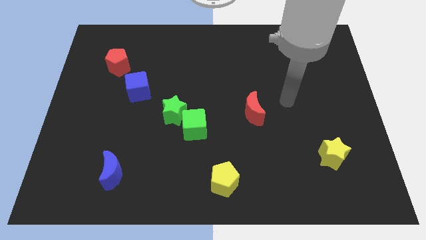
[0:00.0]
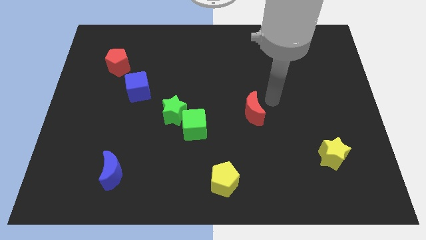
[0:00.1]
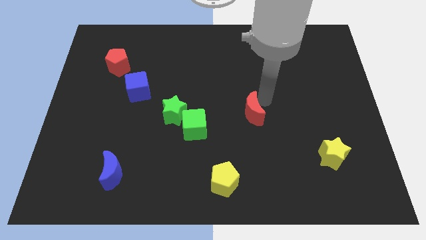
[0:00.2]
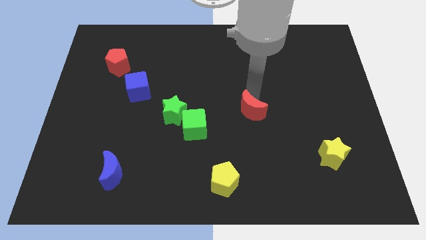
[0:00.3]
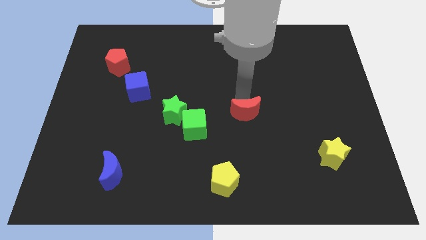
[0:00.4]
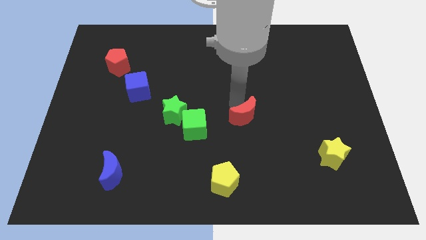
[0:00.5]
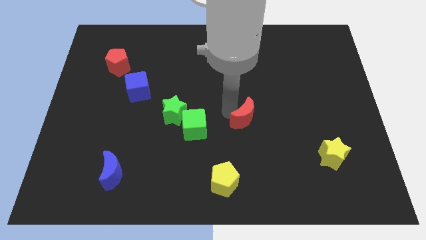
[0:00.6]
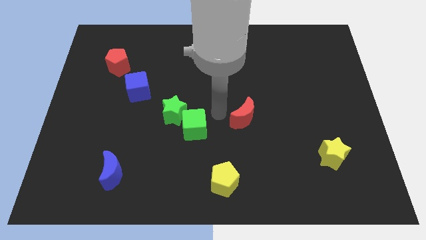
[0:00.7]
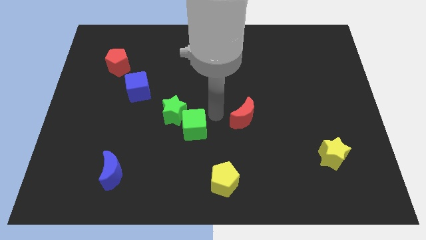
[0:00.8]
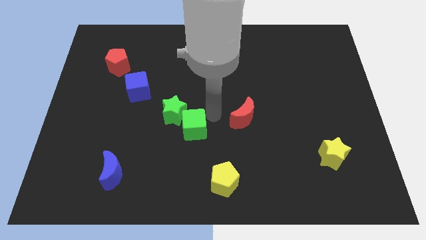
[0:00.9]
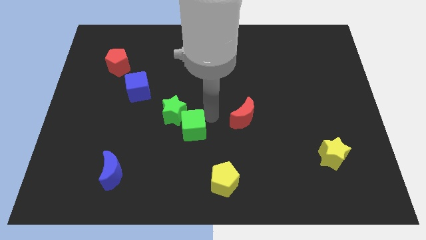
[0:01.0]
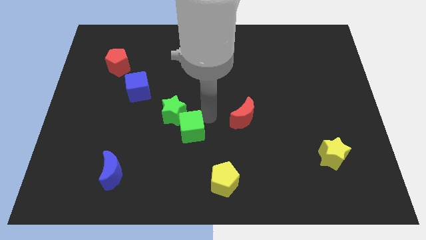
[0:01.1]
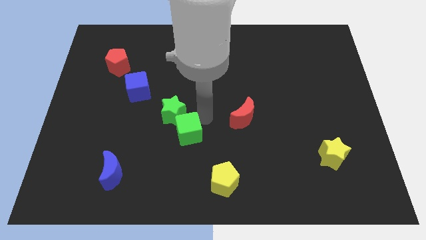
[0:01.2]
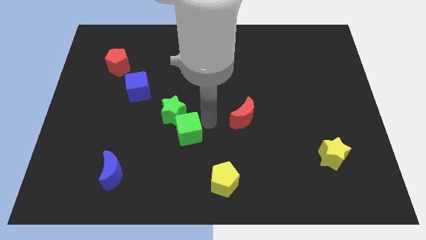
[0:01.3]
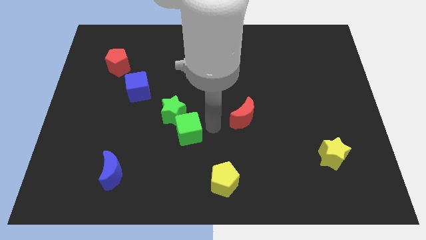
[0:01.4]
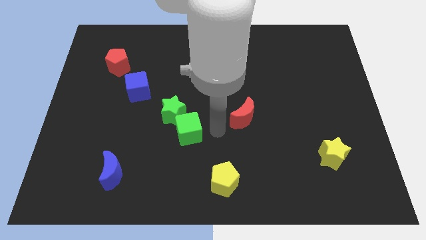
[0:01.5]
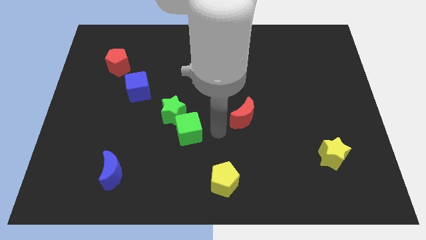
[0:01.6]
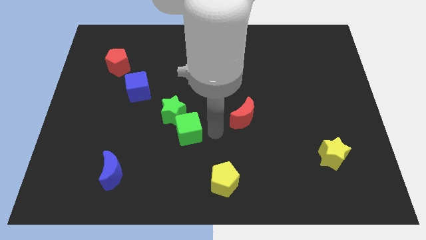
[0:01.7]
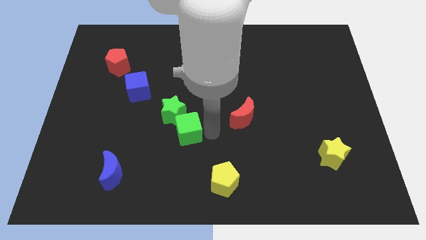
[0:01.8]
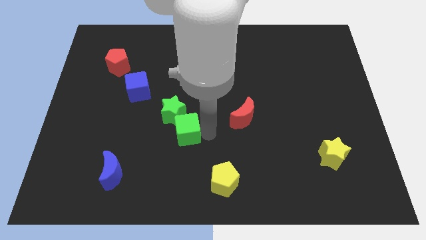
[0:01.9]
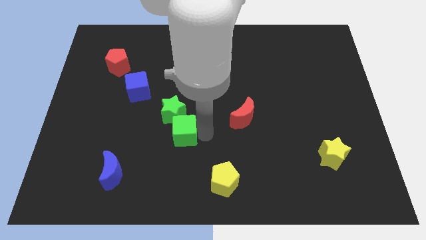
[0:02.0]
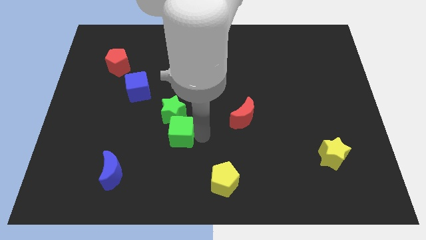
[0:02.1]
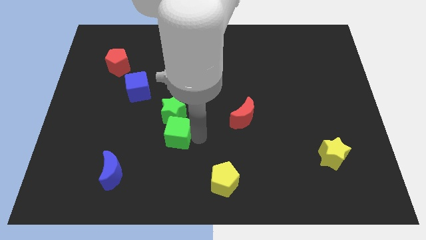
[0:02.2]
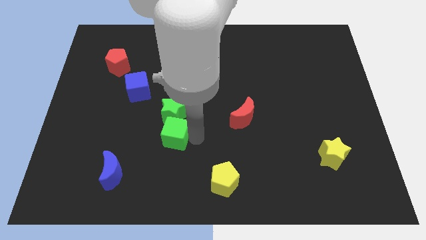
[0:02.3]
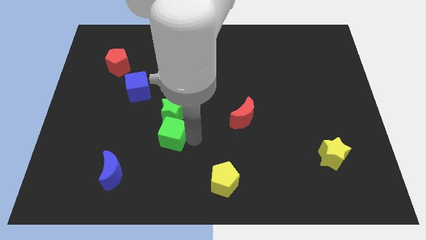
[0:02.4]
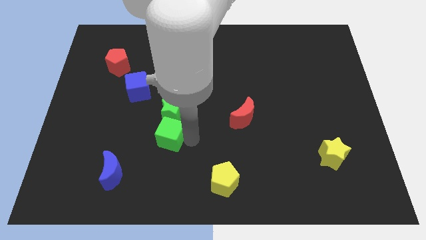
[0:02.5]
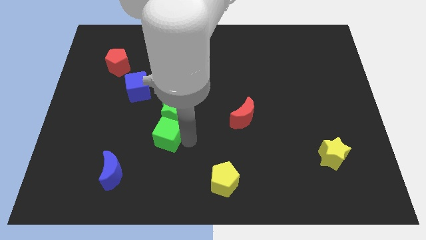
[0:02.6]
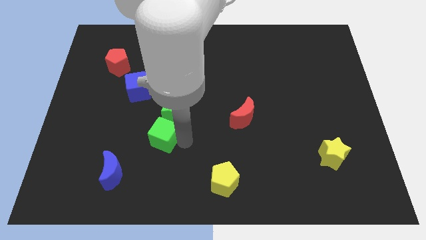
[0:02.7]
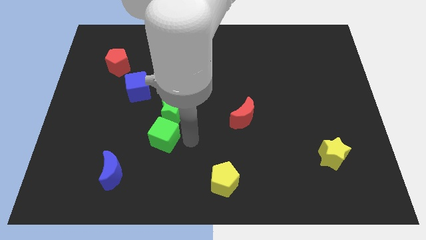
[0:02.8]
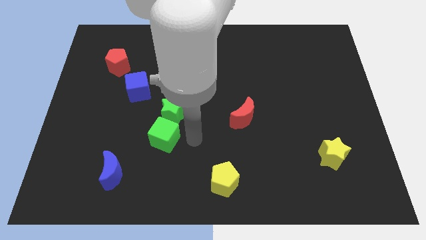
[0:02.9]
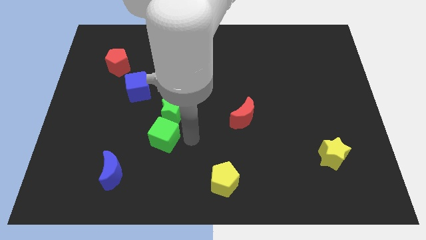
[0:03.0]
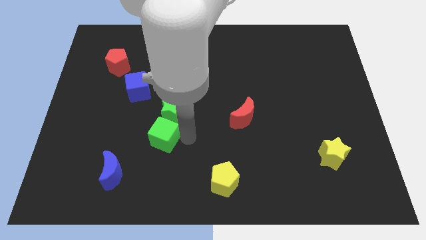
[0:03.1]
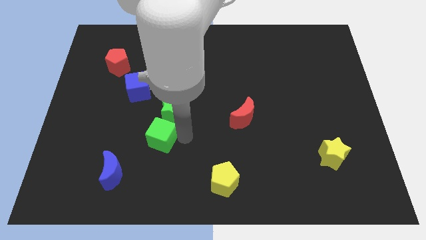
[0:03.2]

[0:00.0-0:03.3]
move the green cube a little to the left

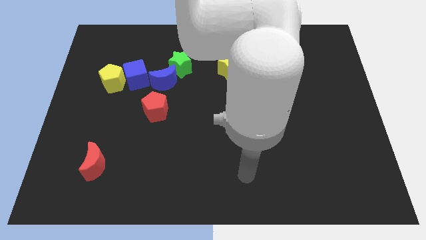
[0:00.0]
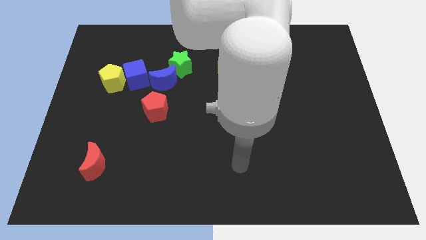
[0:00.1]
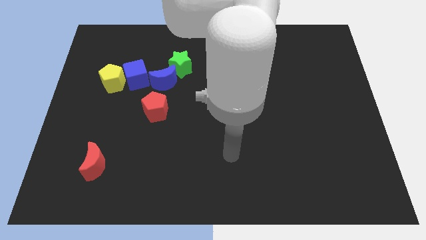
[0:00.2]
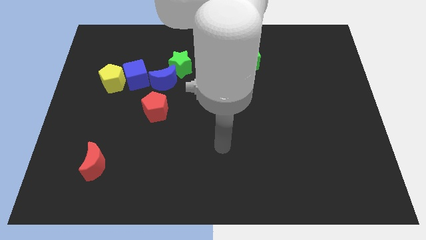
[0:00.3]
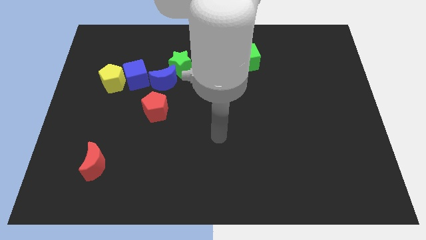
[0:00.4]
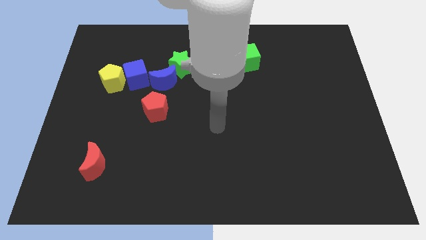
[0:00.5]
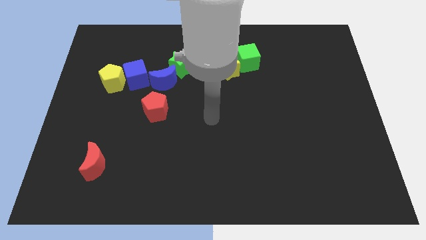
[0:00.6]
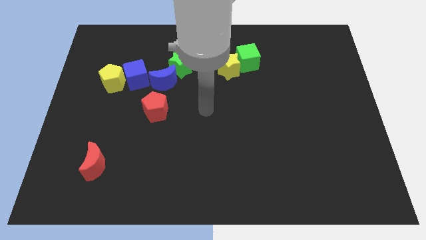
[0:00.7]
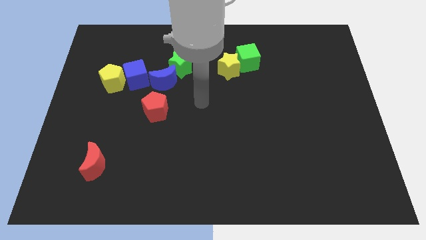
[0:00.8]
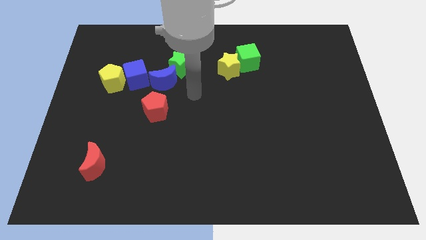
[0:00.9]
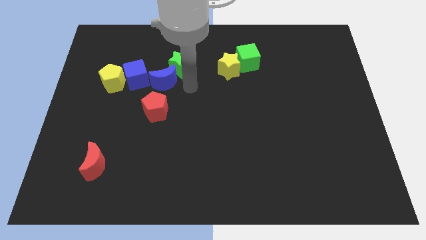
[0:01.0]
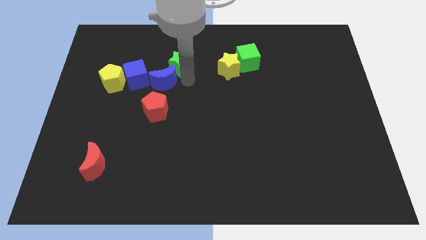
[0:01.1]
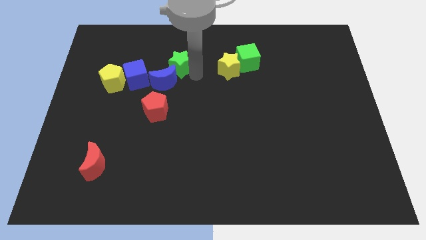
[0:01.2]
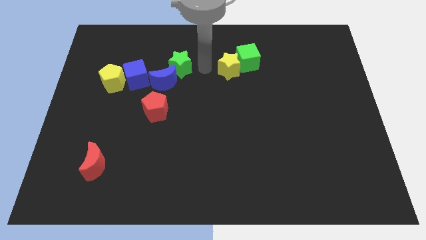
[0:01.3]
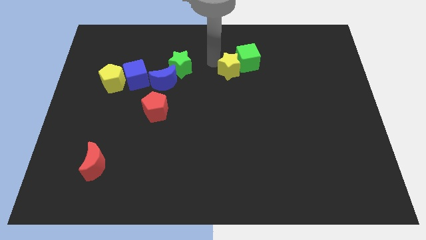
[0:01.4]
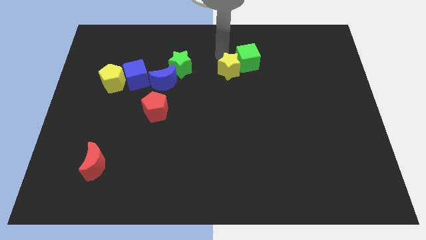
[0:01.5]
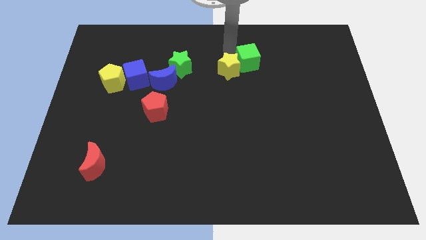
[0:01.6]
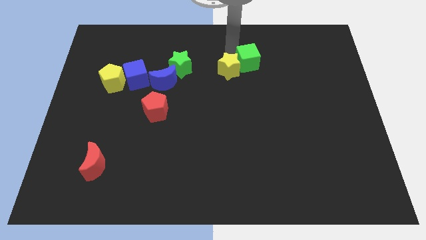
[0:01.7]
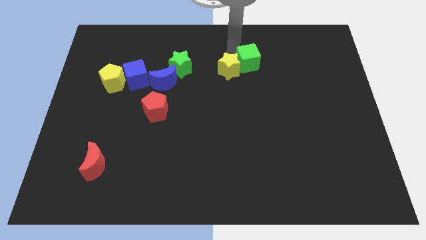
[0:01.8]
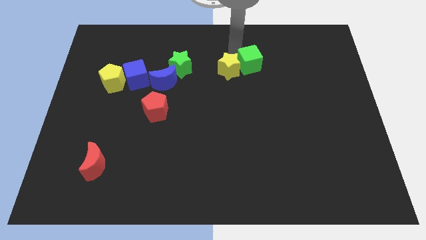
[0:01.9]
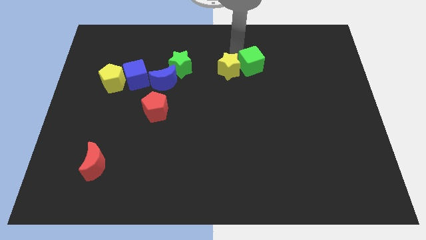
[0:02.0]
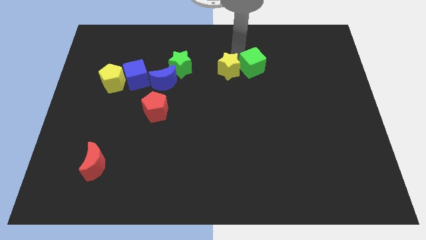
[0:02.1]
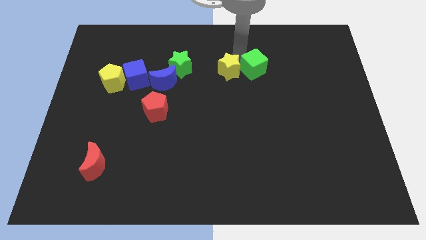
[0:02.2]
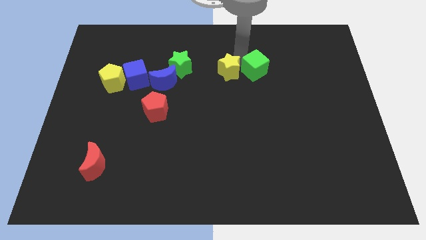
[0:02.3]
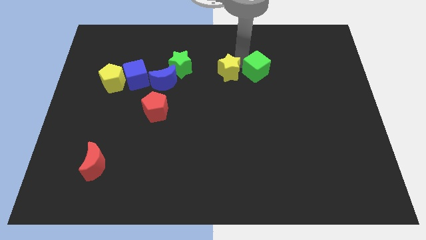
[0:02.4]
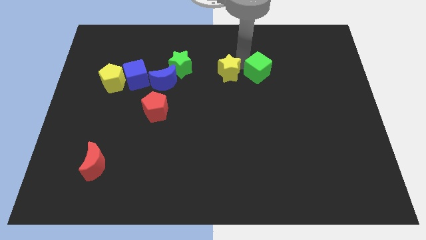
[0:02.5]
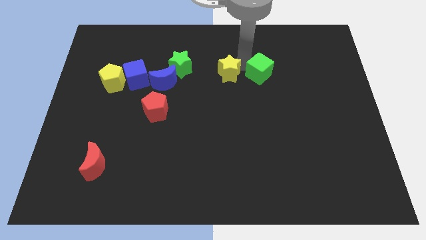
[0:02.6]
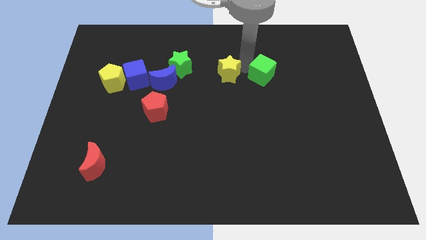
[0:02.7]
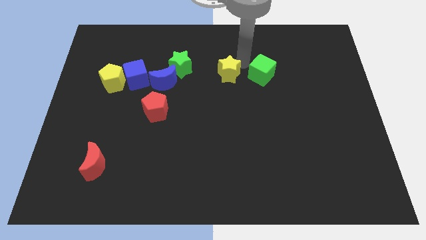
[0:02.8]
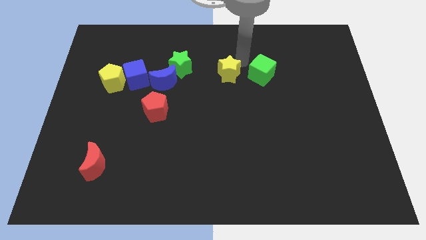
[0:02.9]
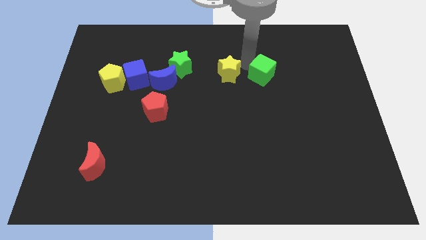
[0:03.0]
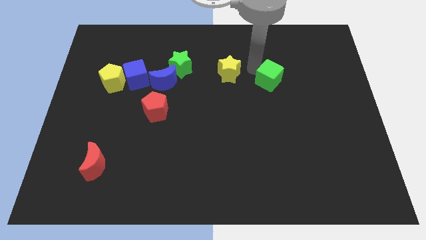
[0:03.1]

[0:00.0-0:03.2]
slide the green cube a bit down and right diagonally

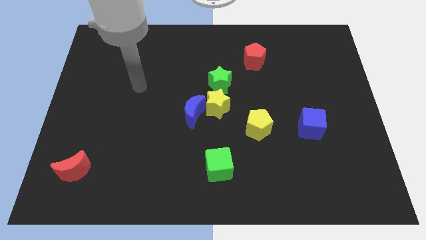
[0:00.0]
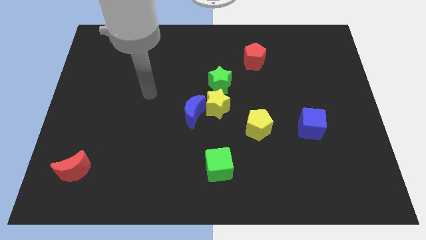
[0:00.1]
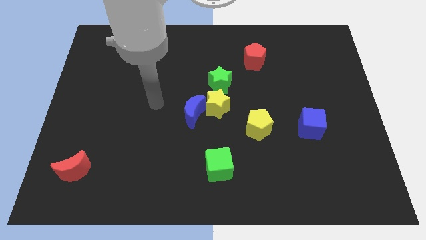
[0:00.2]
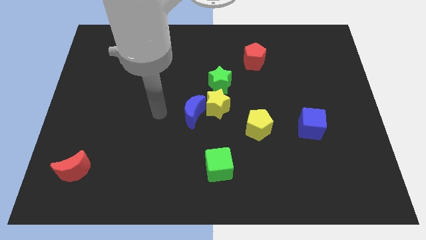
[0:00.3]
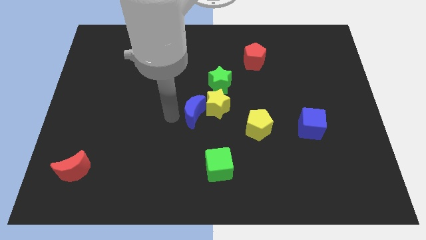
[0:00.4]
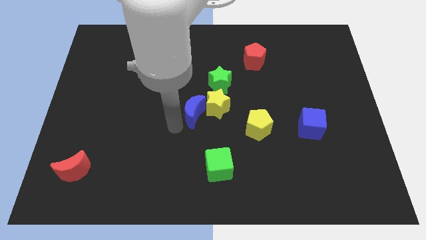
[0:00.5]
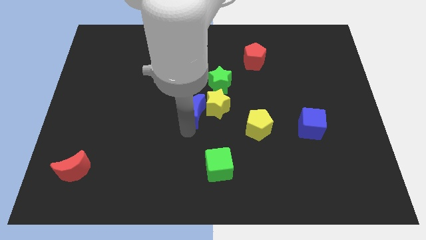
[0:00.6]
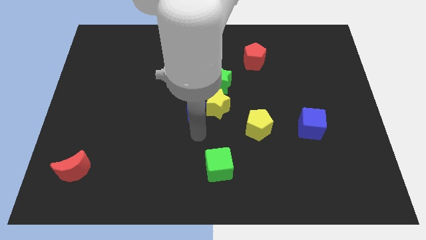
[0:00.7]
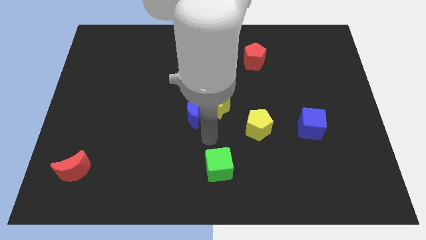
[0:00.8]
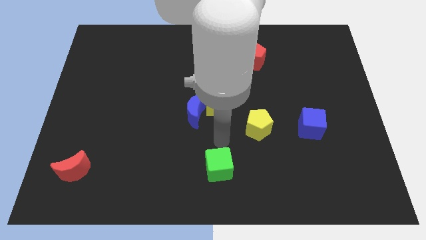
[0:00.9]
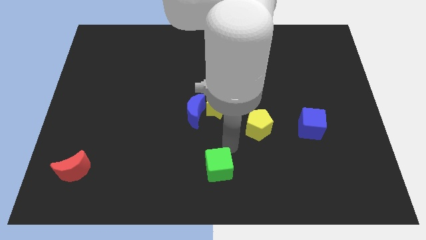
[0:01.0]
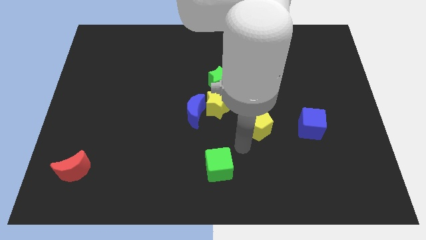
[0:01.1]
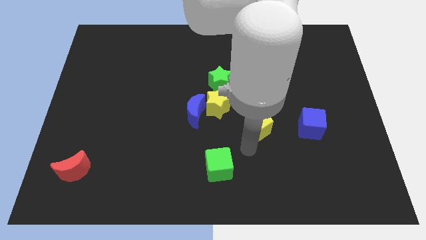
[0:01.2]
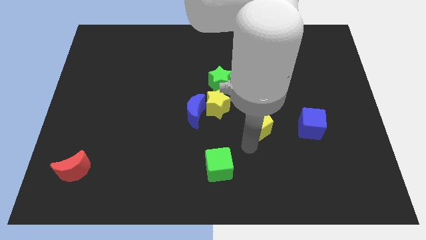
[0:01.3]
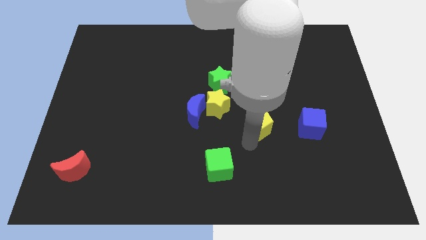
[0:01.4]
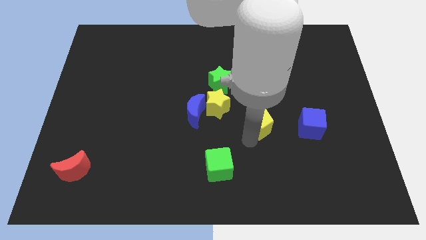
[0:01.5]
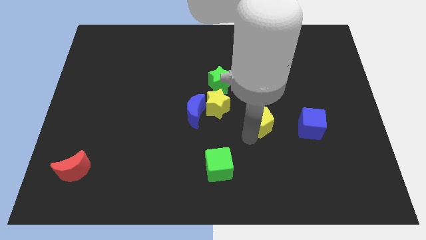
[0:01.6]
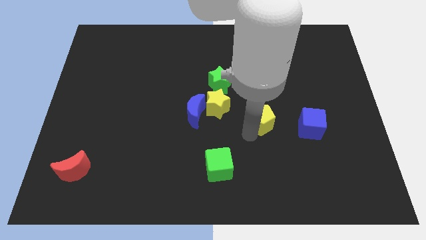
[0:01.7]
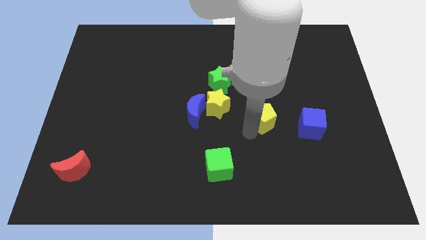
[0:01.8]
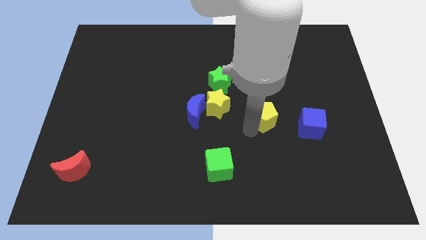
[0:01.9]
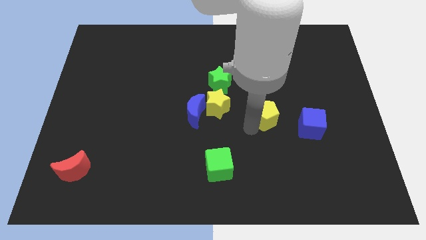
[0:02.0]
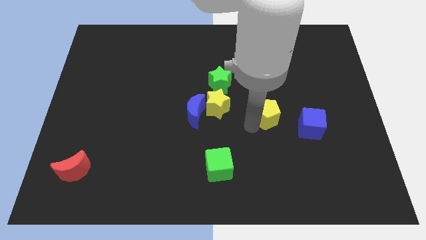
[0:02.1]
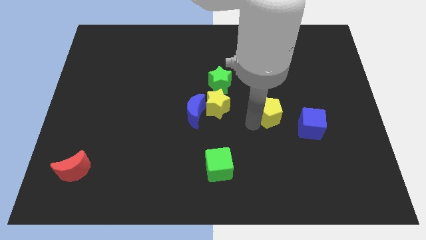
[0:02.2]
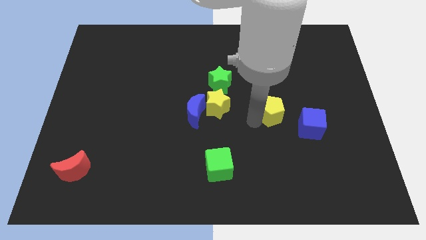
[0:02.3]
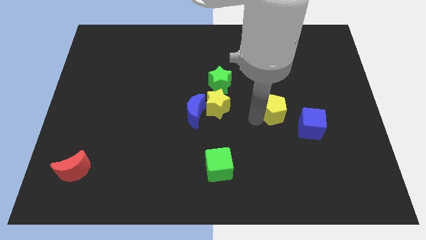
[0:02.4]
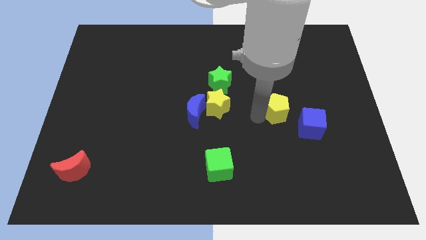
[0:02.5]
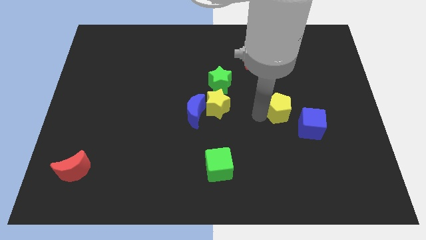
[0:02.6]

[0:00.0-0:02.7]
slightly move the yellow pentagon up and to the right
